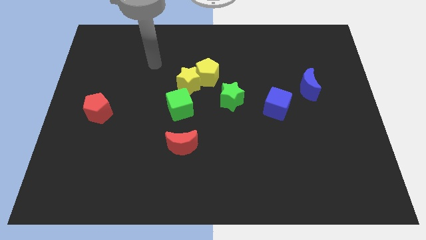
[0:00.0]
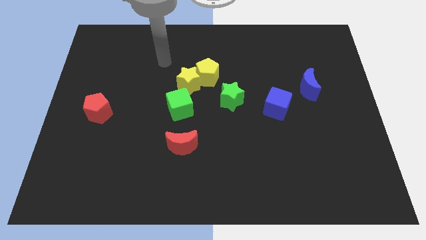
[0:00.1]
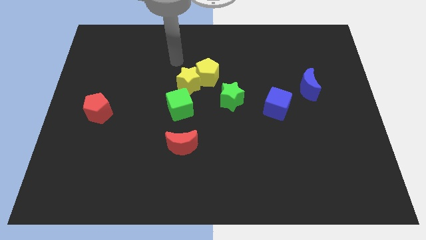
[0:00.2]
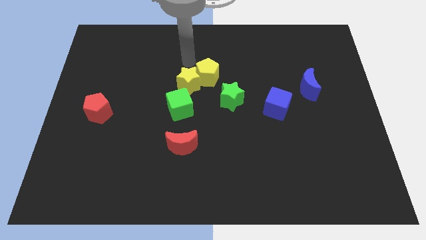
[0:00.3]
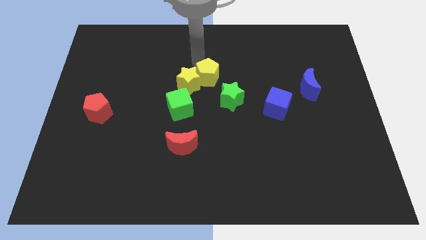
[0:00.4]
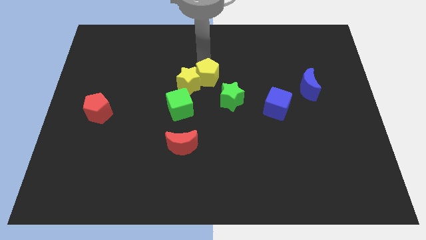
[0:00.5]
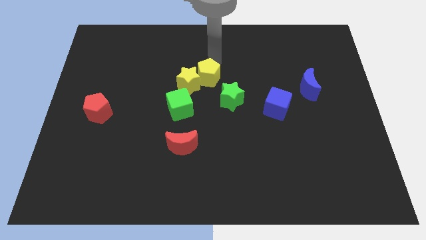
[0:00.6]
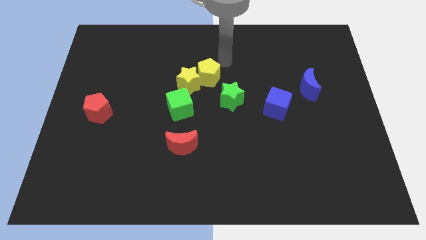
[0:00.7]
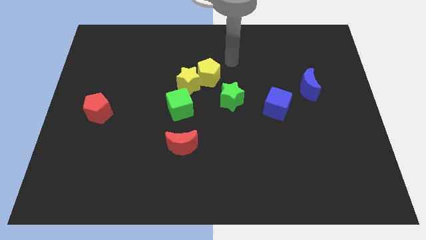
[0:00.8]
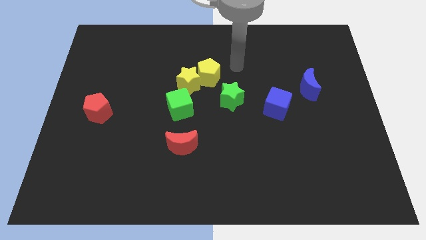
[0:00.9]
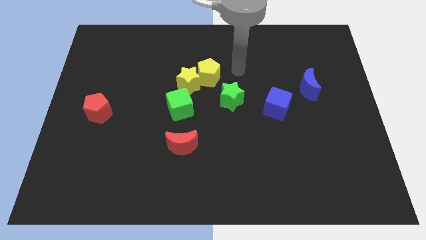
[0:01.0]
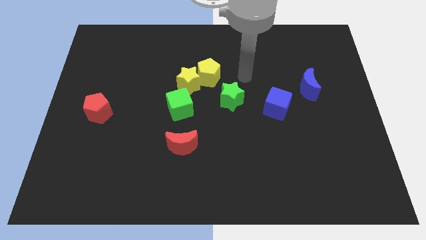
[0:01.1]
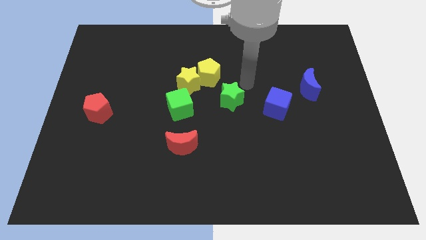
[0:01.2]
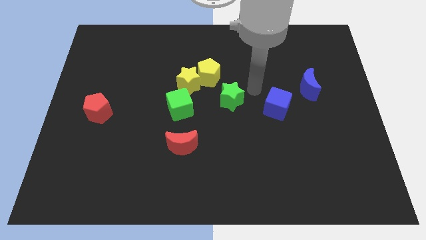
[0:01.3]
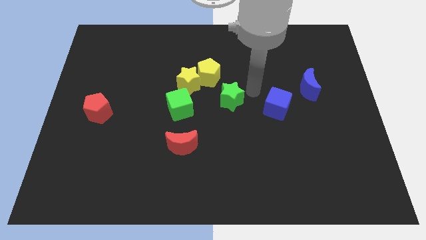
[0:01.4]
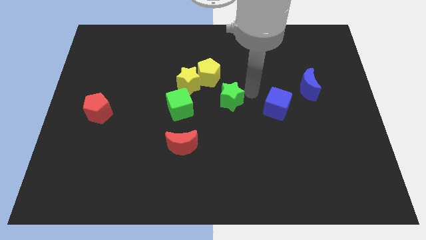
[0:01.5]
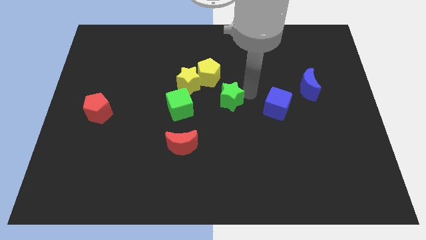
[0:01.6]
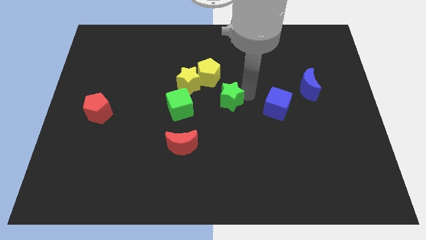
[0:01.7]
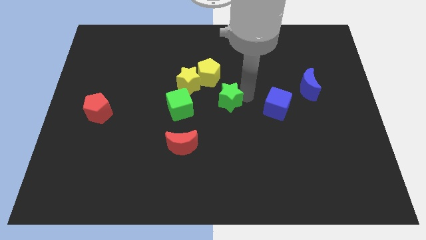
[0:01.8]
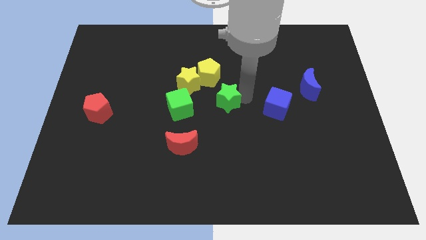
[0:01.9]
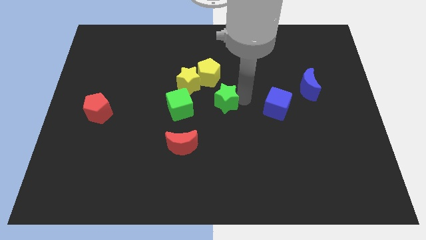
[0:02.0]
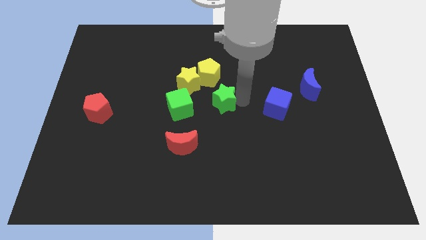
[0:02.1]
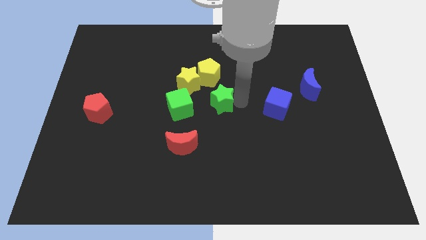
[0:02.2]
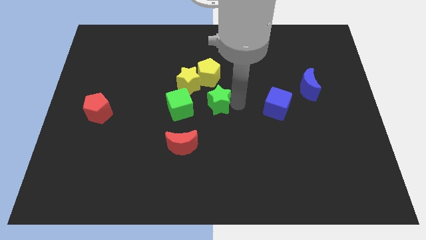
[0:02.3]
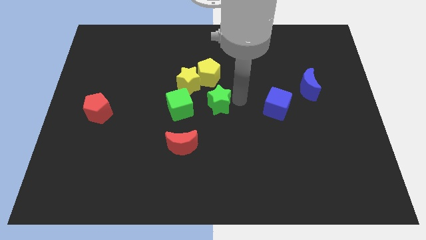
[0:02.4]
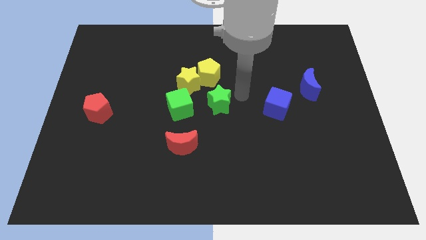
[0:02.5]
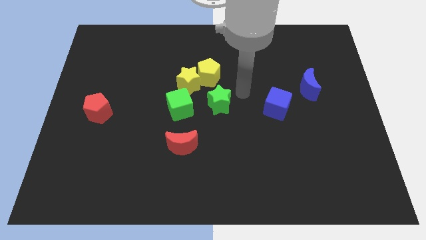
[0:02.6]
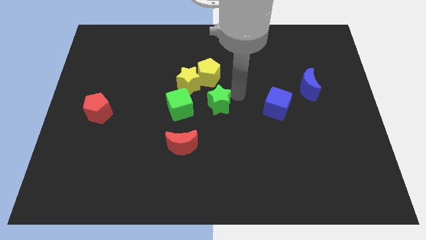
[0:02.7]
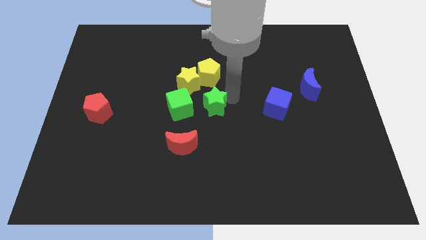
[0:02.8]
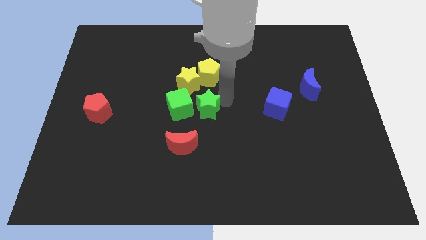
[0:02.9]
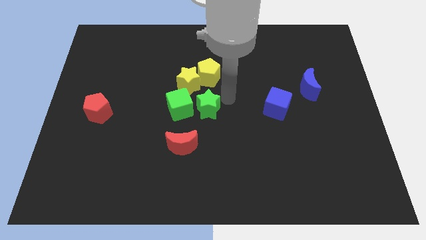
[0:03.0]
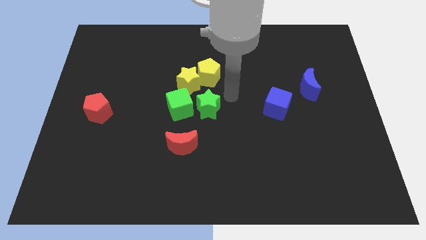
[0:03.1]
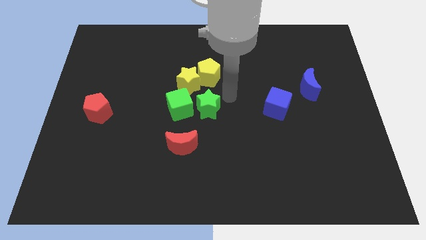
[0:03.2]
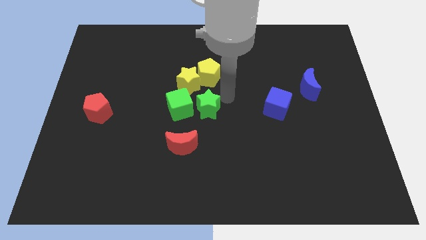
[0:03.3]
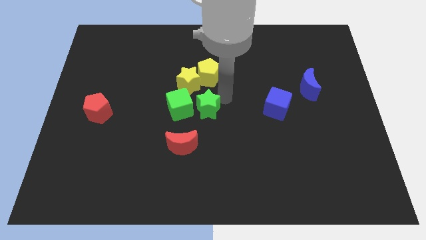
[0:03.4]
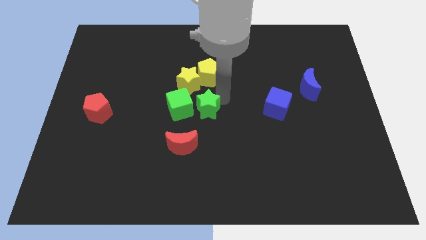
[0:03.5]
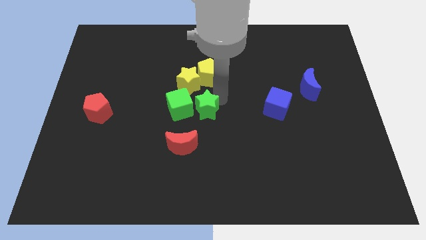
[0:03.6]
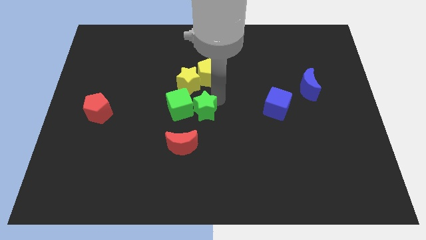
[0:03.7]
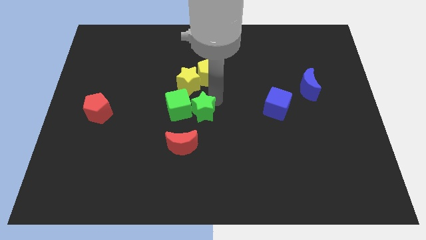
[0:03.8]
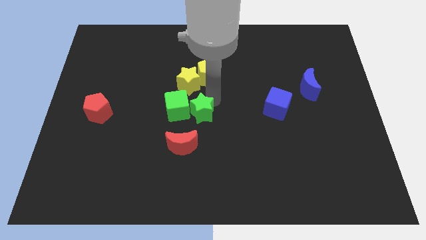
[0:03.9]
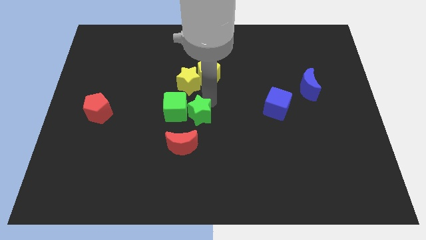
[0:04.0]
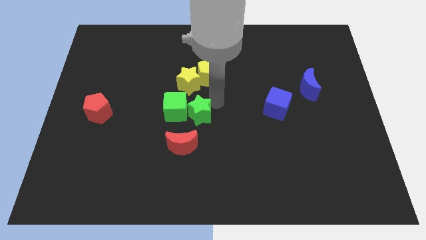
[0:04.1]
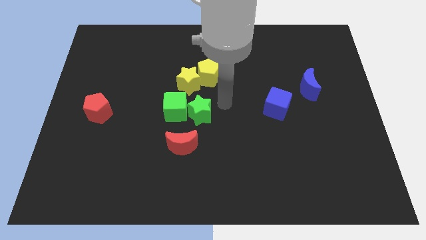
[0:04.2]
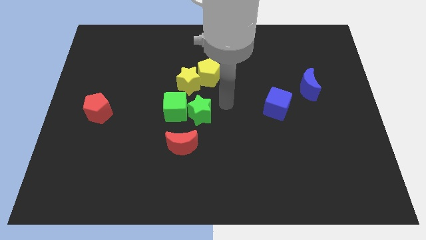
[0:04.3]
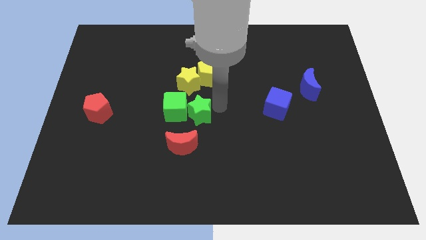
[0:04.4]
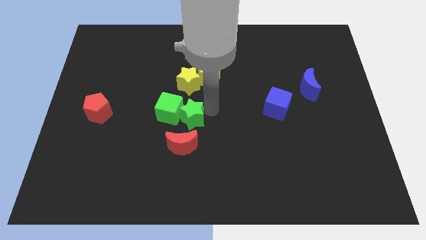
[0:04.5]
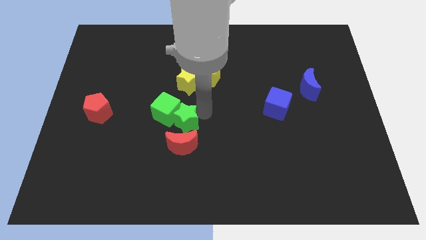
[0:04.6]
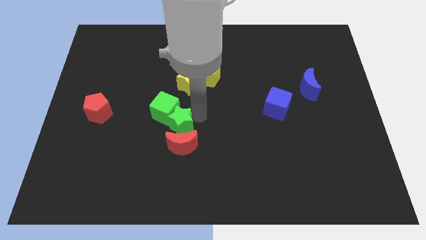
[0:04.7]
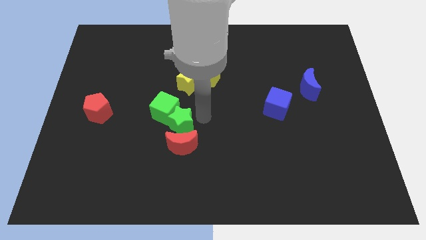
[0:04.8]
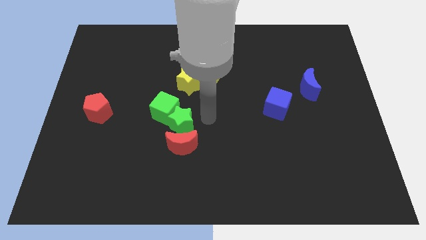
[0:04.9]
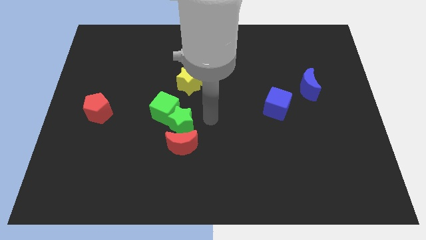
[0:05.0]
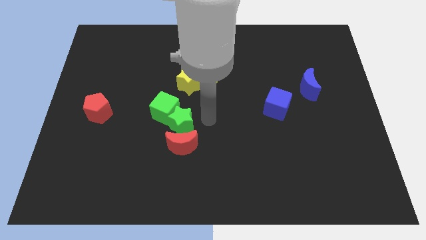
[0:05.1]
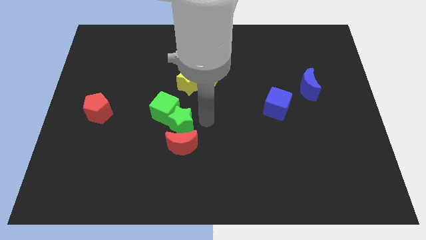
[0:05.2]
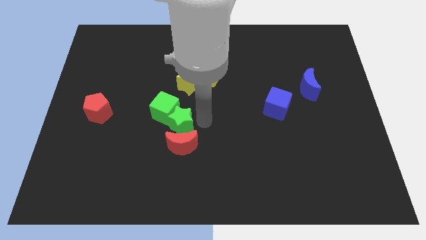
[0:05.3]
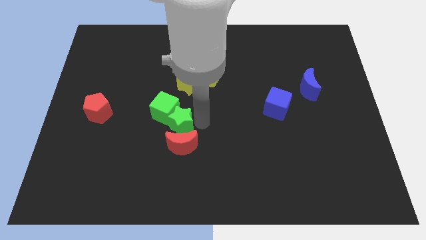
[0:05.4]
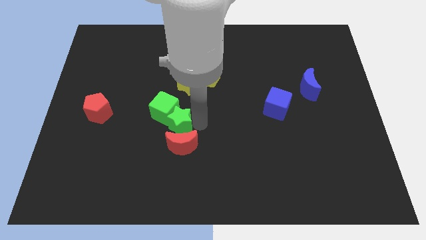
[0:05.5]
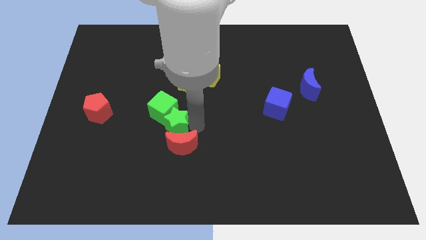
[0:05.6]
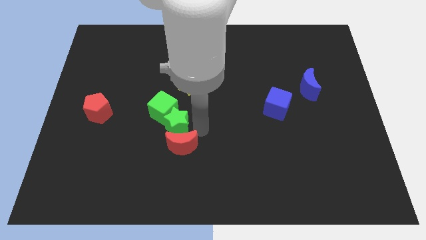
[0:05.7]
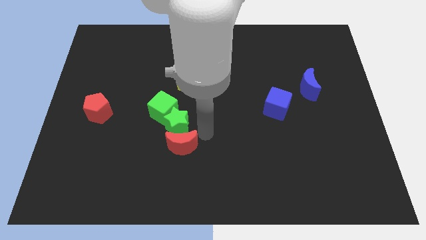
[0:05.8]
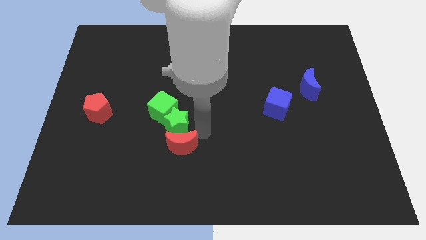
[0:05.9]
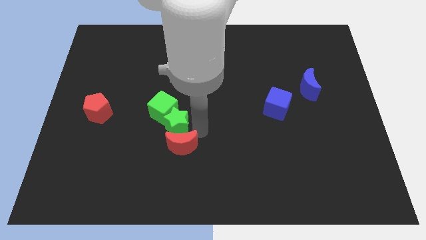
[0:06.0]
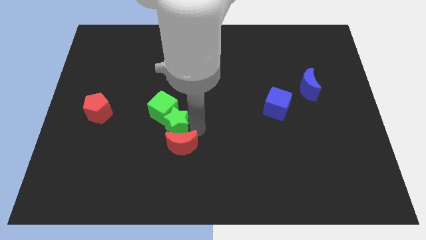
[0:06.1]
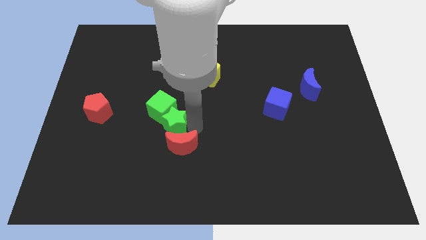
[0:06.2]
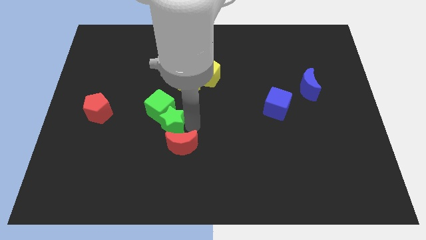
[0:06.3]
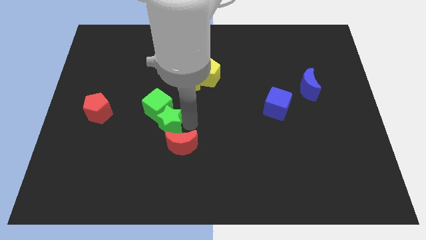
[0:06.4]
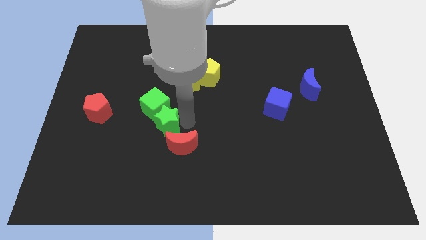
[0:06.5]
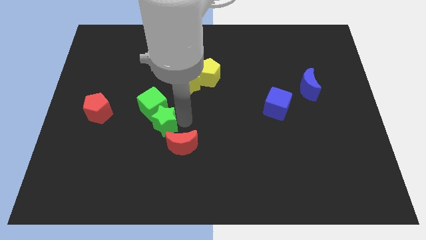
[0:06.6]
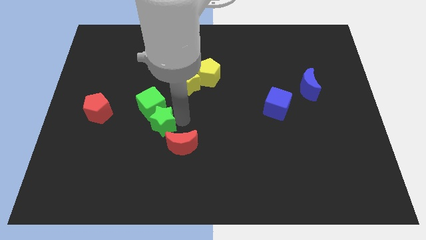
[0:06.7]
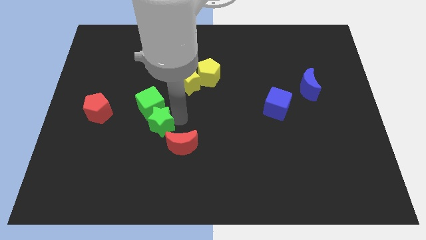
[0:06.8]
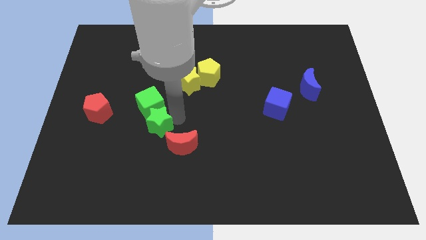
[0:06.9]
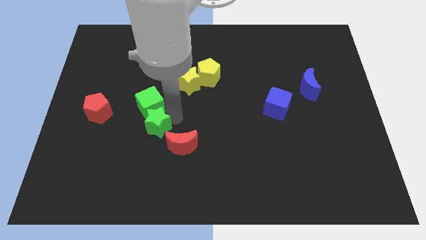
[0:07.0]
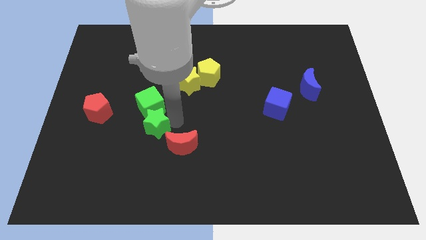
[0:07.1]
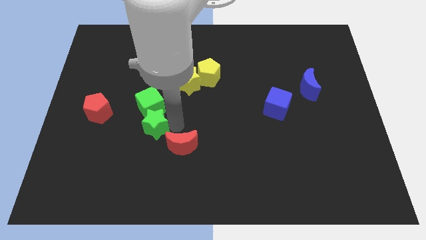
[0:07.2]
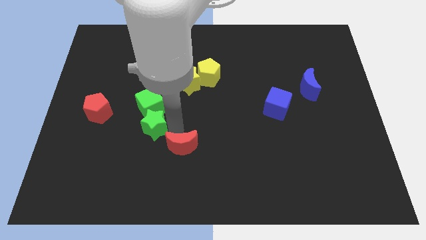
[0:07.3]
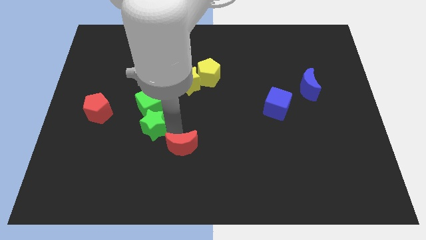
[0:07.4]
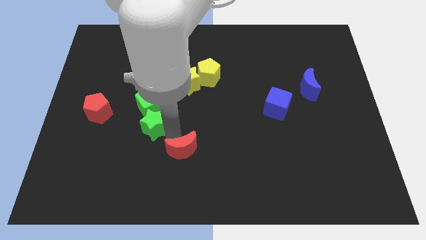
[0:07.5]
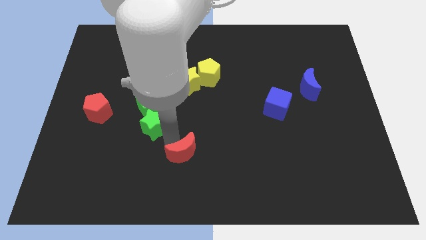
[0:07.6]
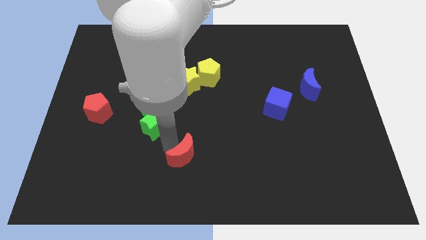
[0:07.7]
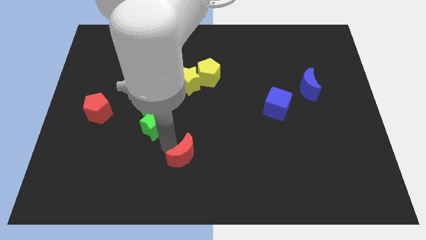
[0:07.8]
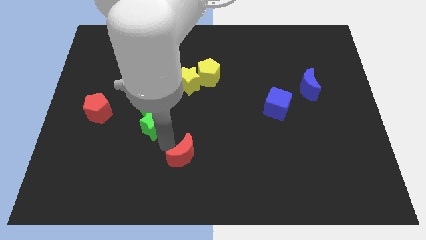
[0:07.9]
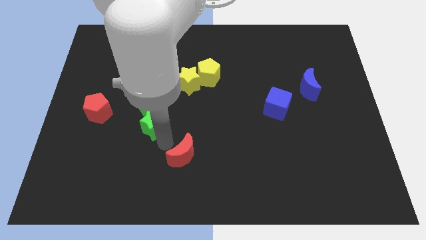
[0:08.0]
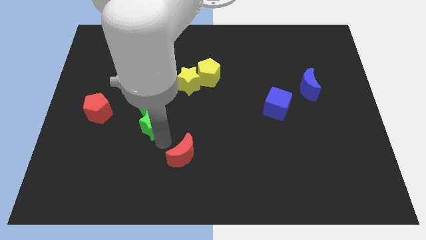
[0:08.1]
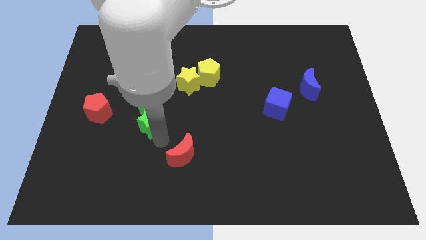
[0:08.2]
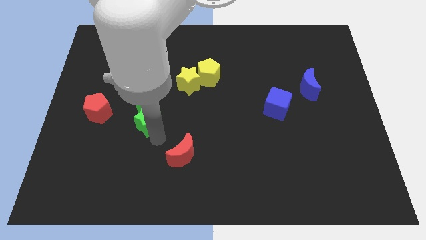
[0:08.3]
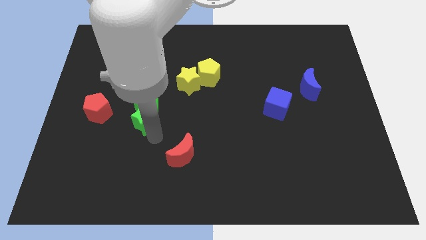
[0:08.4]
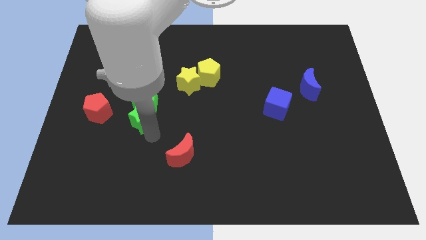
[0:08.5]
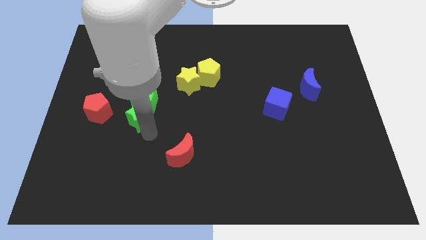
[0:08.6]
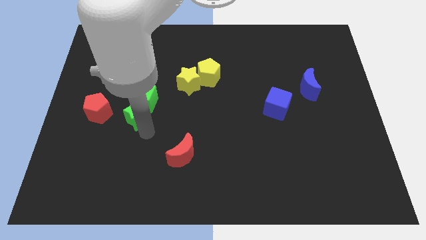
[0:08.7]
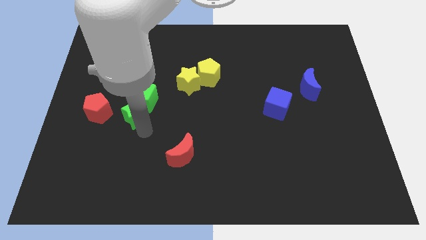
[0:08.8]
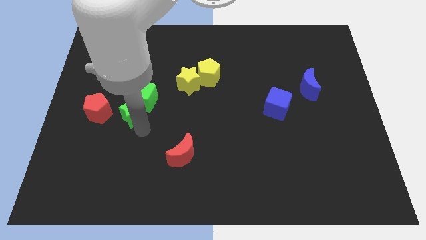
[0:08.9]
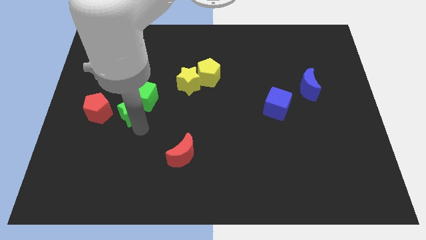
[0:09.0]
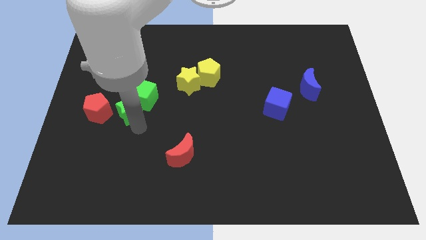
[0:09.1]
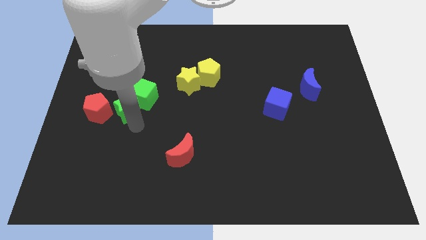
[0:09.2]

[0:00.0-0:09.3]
slide the green star to the top right side of the red pentagon
